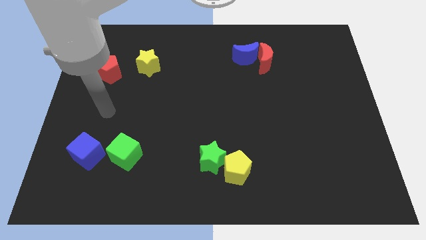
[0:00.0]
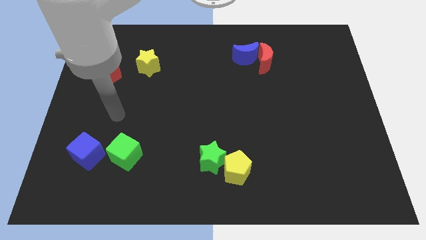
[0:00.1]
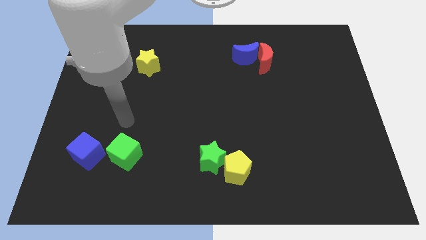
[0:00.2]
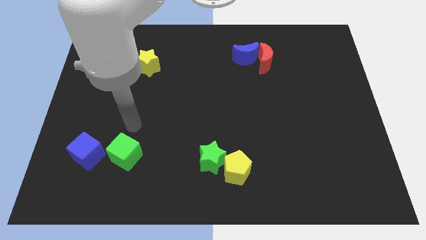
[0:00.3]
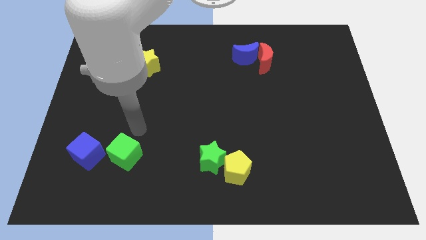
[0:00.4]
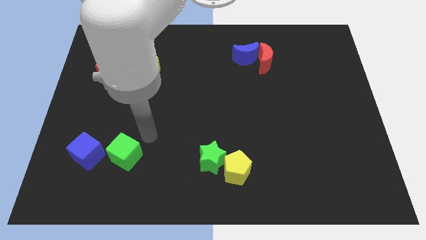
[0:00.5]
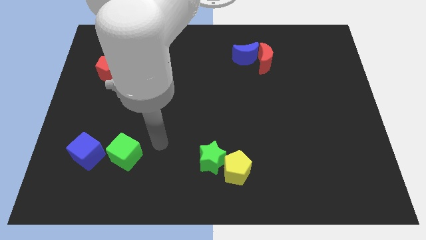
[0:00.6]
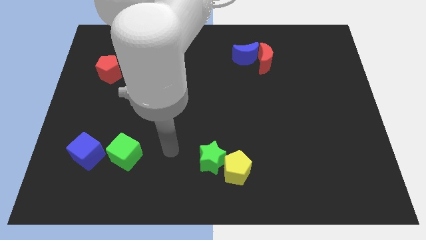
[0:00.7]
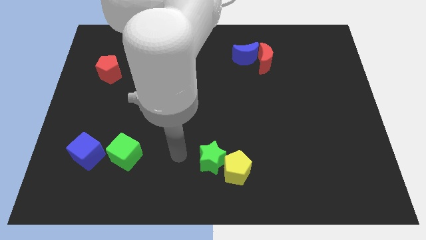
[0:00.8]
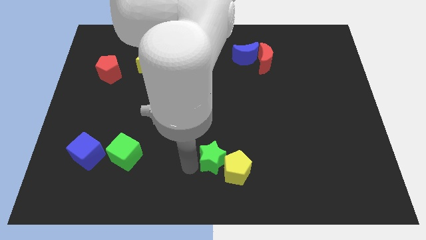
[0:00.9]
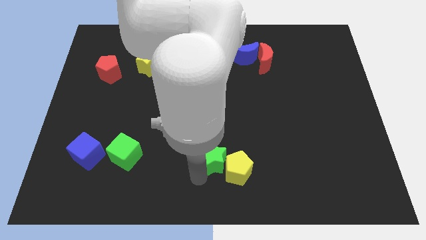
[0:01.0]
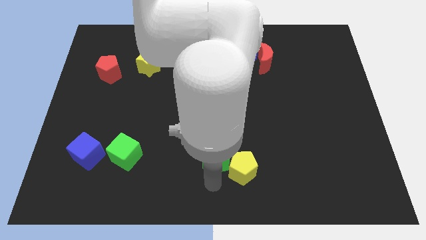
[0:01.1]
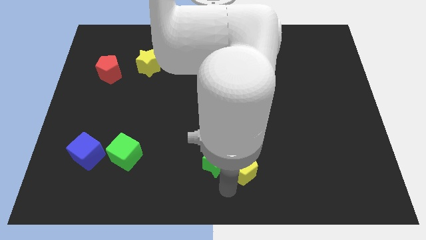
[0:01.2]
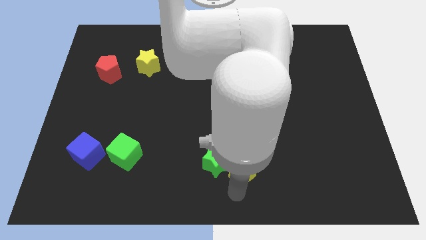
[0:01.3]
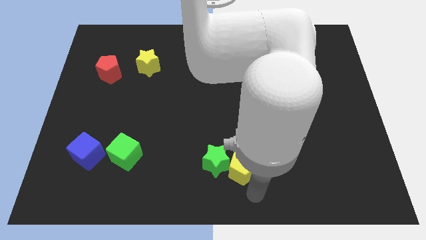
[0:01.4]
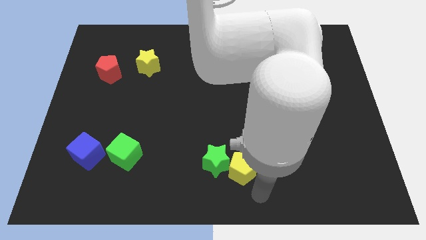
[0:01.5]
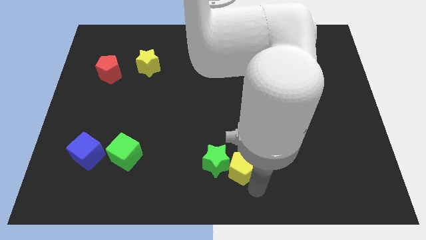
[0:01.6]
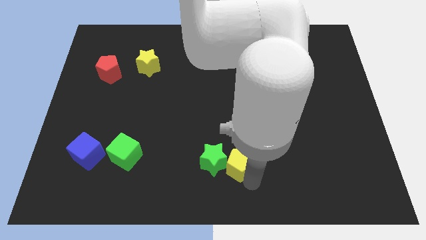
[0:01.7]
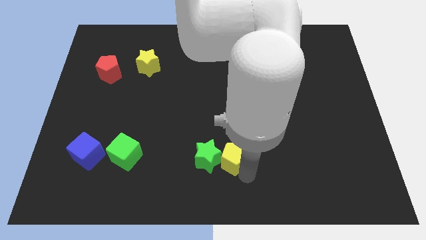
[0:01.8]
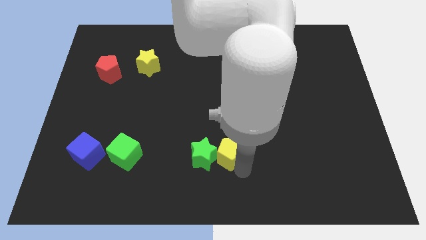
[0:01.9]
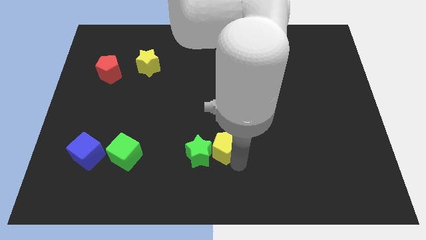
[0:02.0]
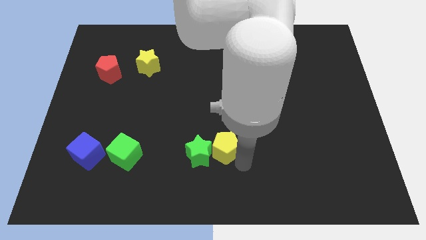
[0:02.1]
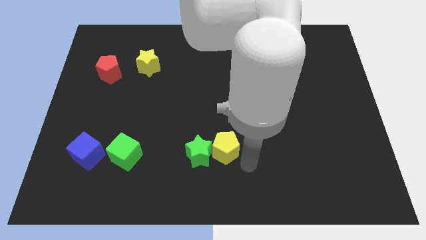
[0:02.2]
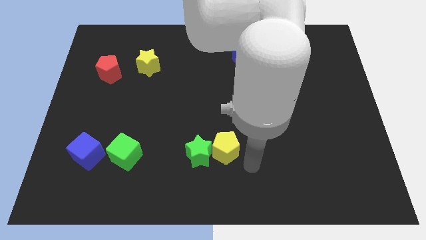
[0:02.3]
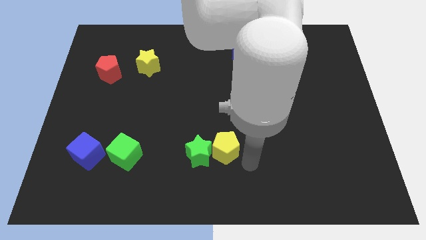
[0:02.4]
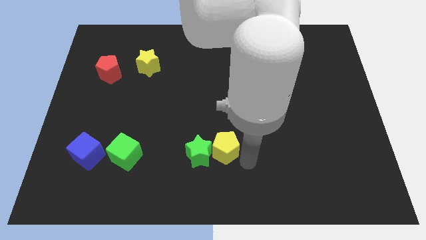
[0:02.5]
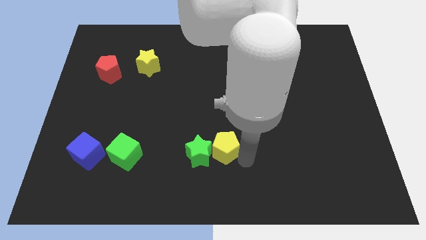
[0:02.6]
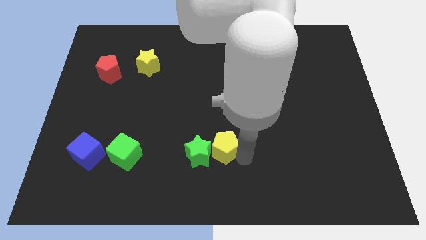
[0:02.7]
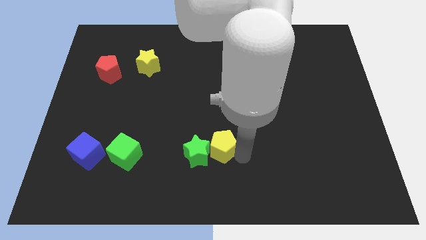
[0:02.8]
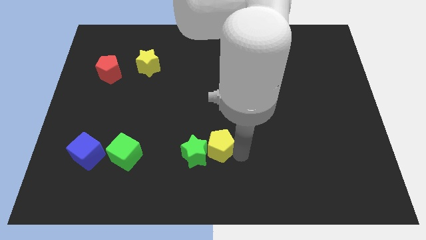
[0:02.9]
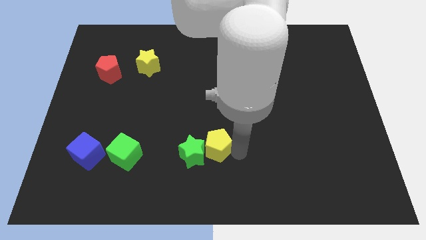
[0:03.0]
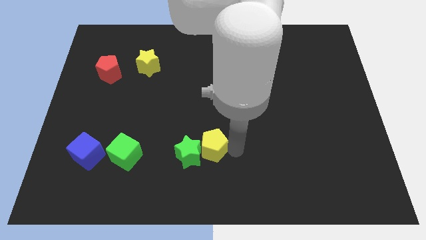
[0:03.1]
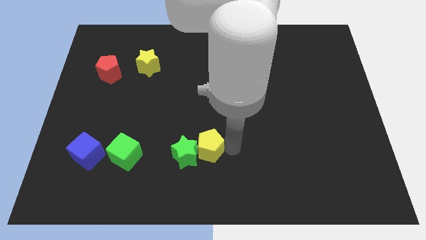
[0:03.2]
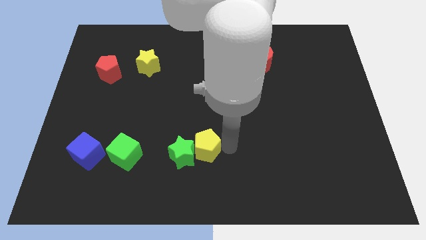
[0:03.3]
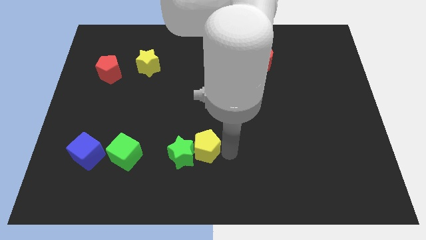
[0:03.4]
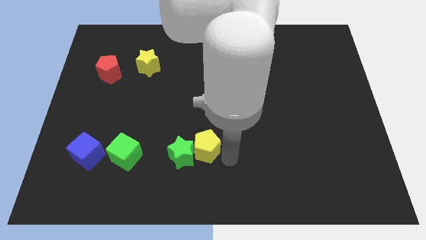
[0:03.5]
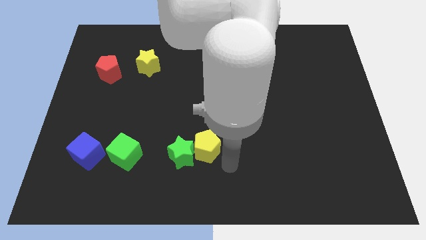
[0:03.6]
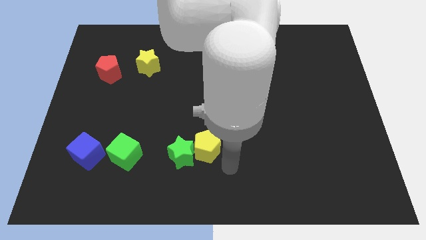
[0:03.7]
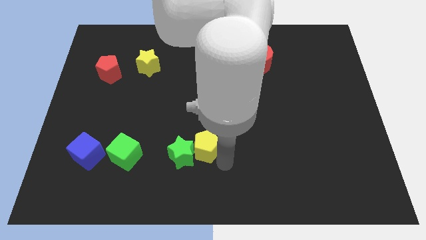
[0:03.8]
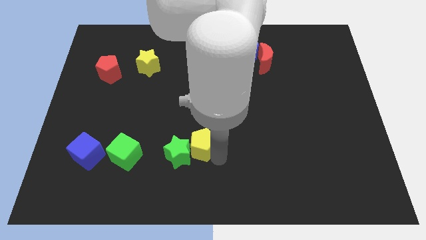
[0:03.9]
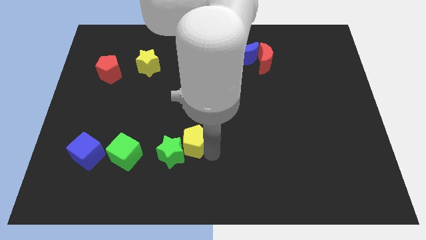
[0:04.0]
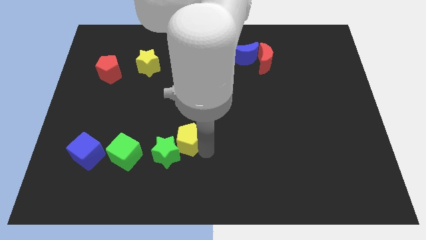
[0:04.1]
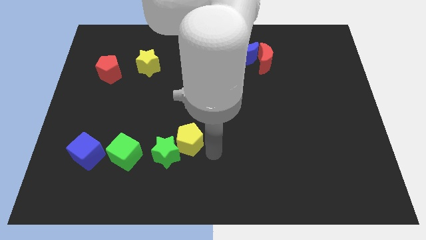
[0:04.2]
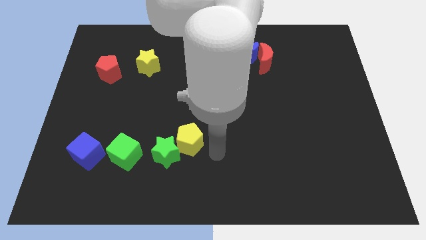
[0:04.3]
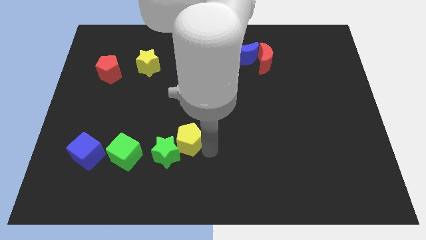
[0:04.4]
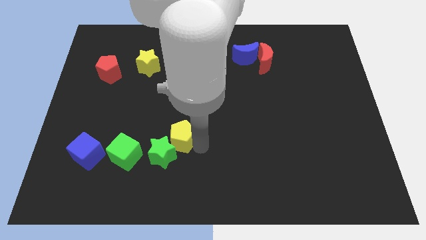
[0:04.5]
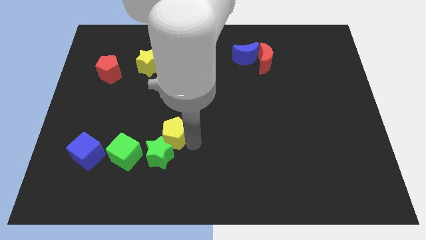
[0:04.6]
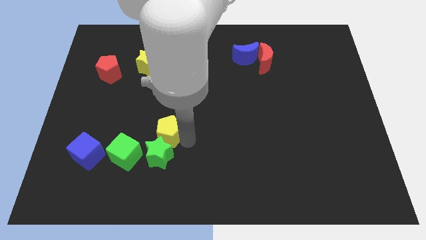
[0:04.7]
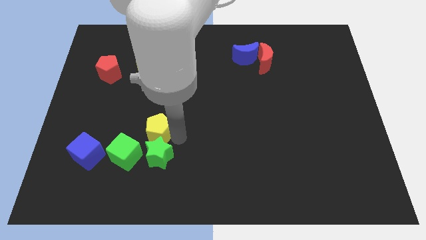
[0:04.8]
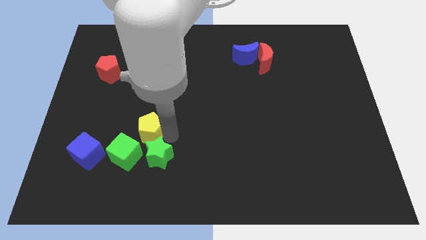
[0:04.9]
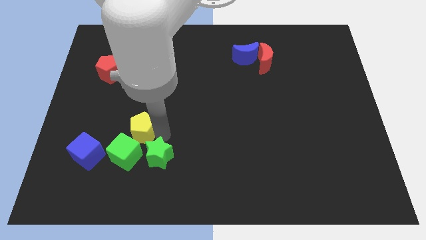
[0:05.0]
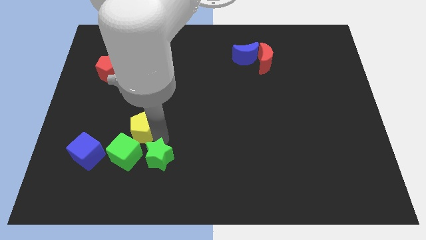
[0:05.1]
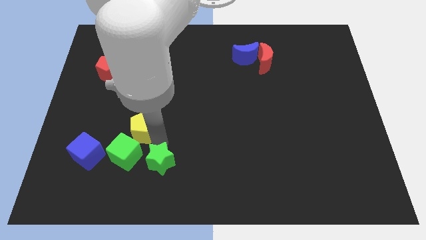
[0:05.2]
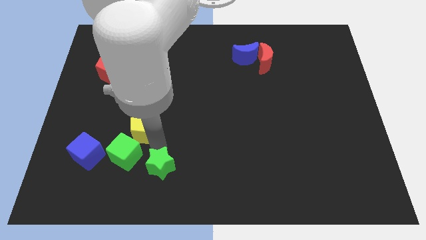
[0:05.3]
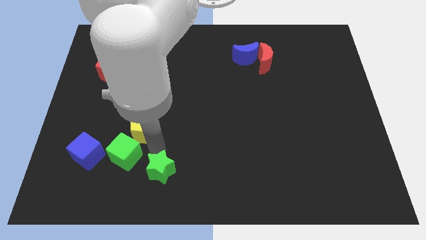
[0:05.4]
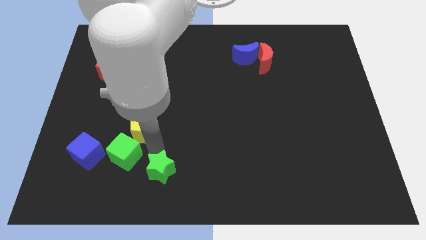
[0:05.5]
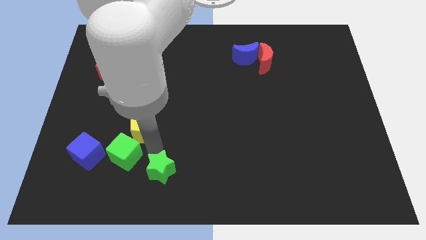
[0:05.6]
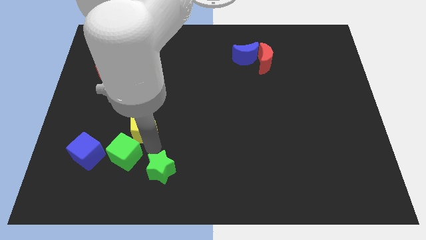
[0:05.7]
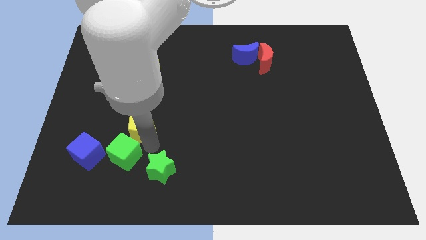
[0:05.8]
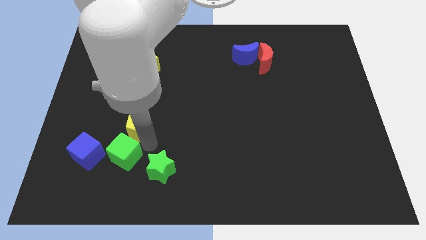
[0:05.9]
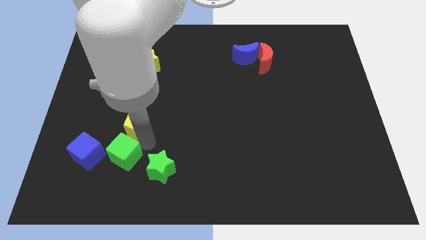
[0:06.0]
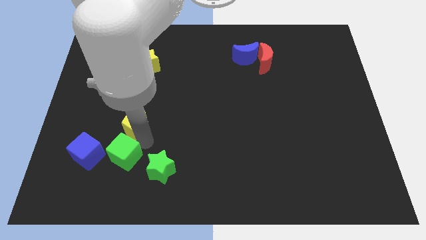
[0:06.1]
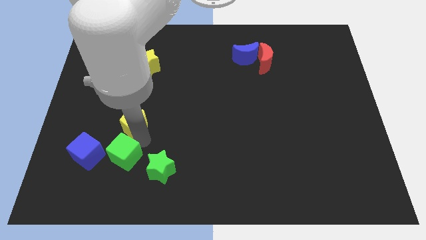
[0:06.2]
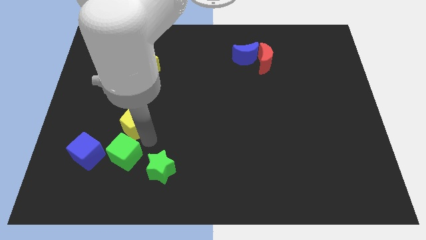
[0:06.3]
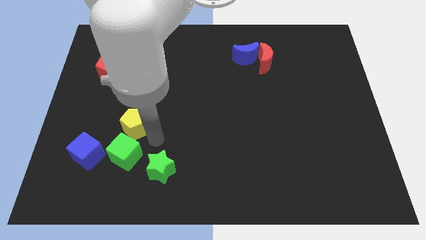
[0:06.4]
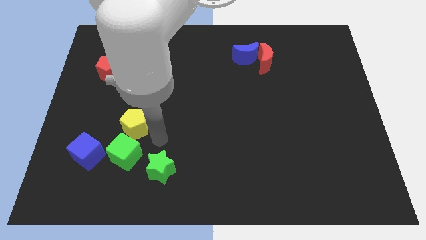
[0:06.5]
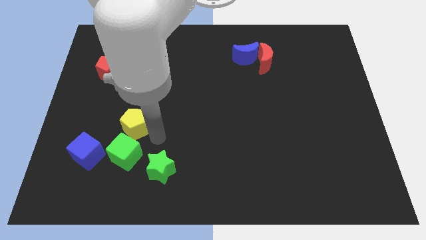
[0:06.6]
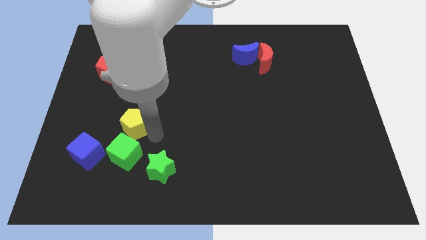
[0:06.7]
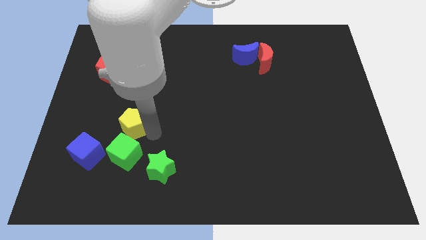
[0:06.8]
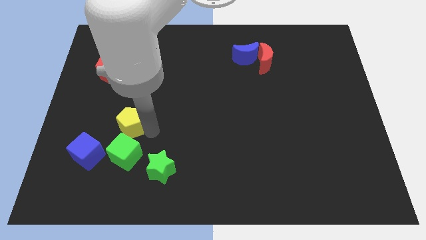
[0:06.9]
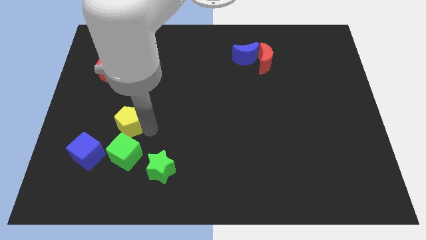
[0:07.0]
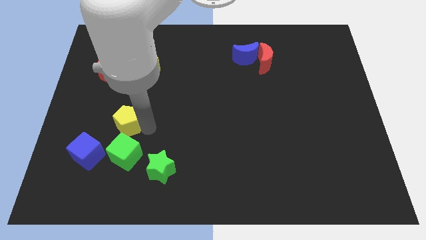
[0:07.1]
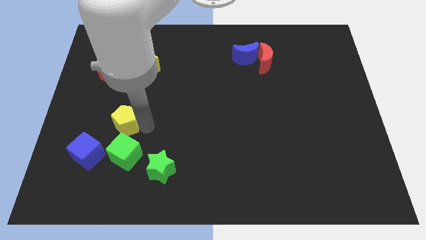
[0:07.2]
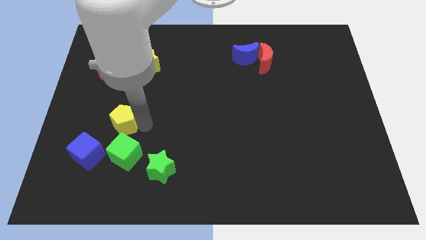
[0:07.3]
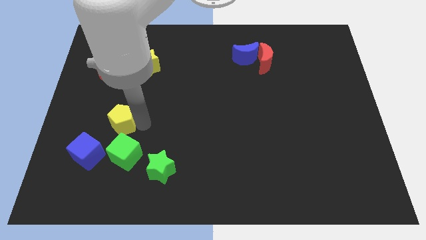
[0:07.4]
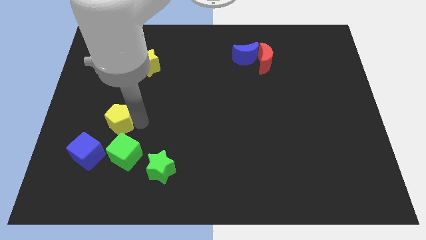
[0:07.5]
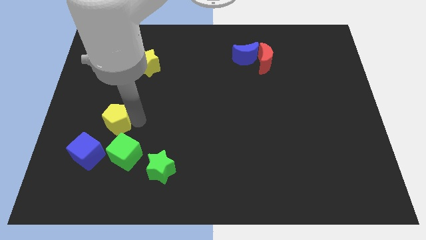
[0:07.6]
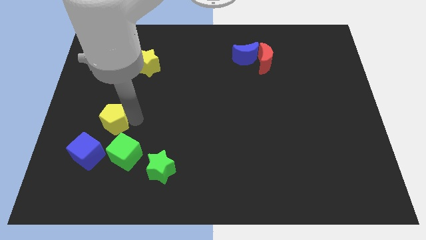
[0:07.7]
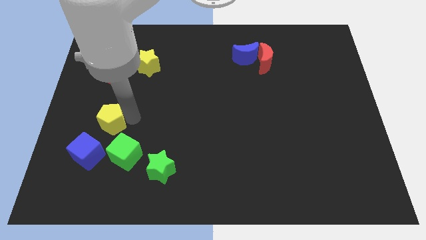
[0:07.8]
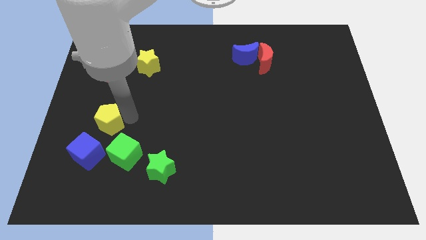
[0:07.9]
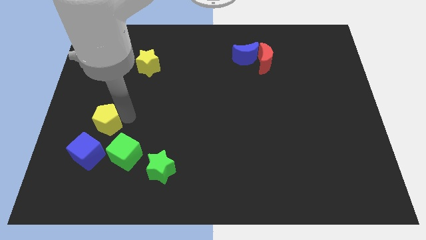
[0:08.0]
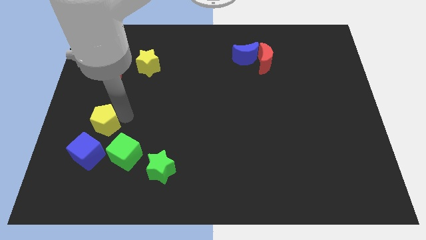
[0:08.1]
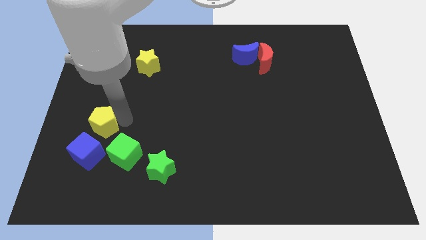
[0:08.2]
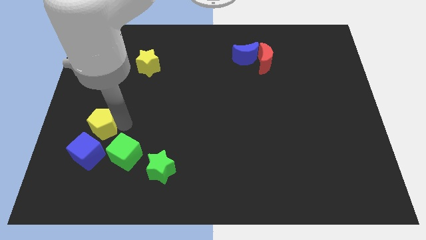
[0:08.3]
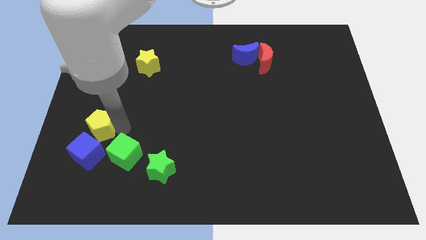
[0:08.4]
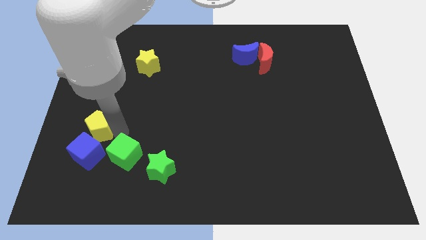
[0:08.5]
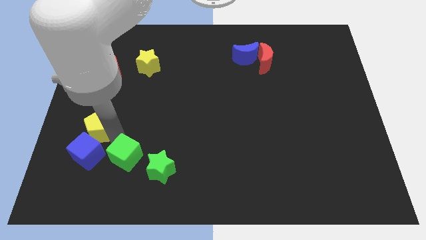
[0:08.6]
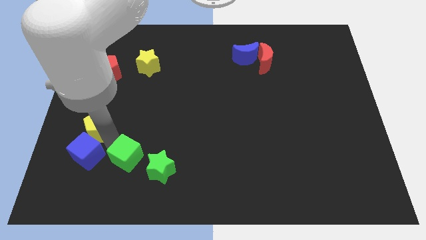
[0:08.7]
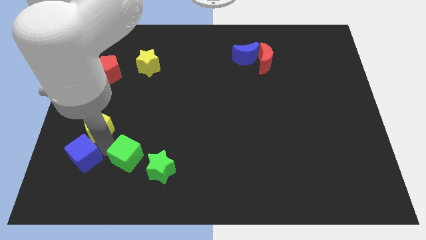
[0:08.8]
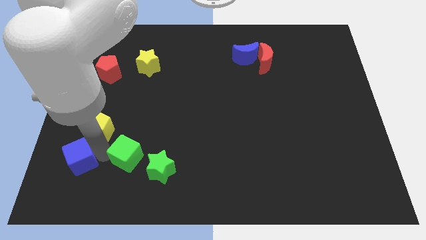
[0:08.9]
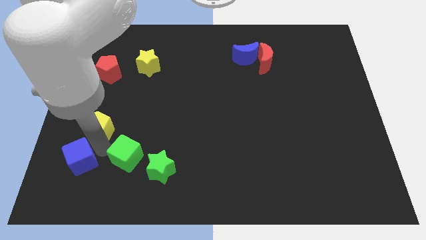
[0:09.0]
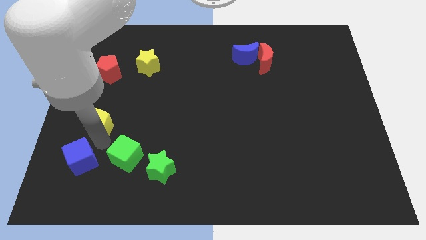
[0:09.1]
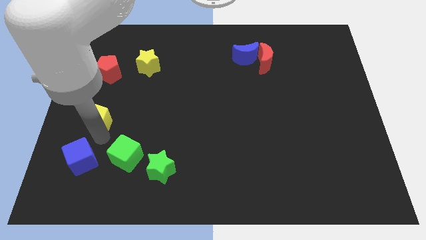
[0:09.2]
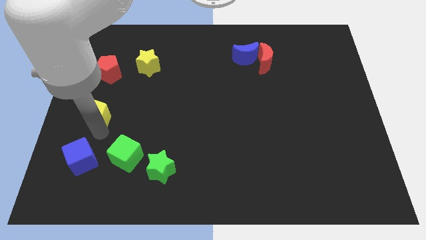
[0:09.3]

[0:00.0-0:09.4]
put the yellow pentagon to the left side
